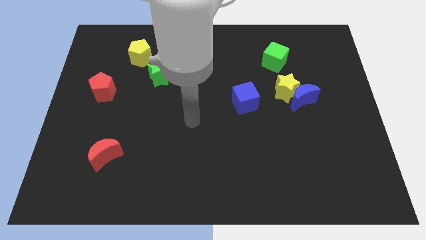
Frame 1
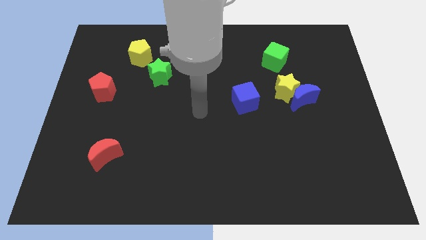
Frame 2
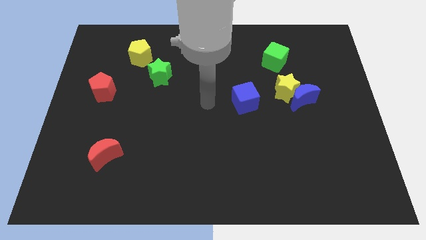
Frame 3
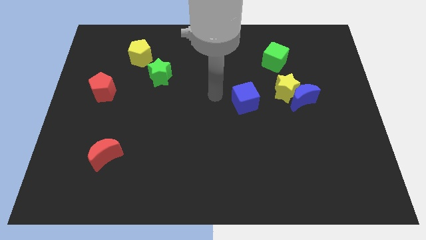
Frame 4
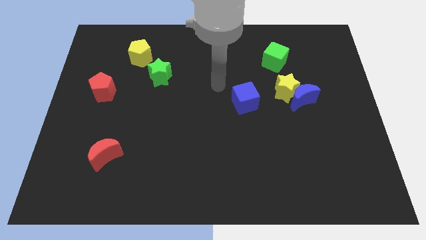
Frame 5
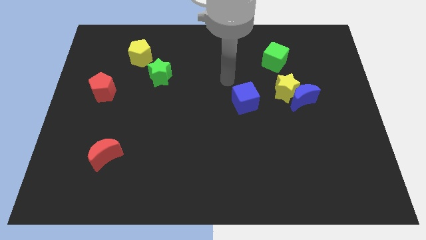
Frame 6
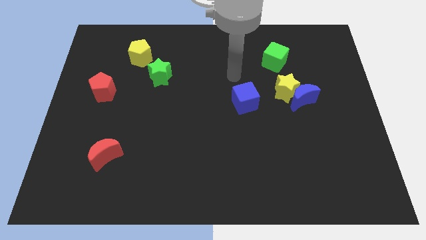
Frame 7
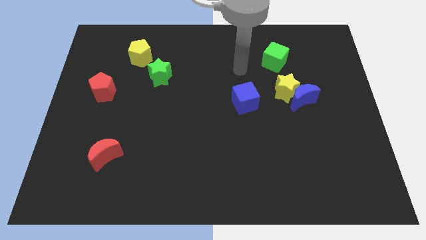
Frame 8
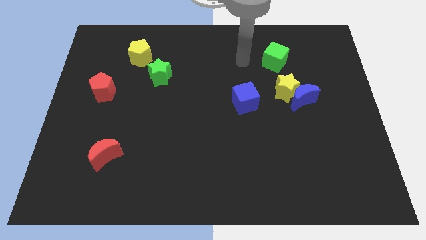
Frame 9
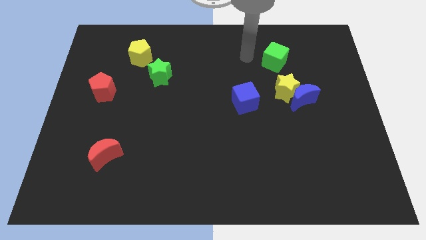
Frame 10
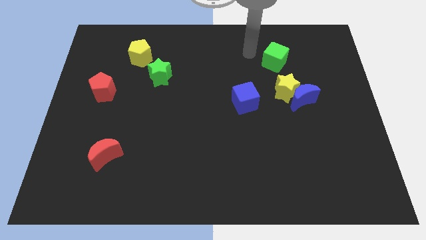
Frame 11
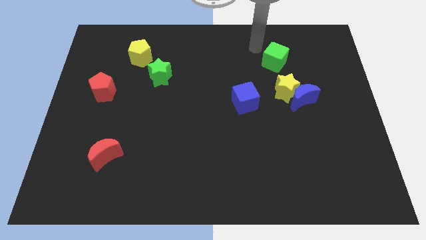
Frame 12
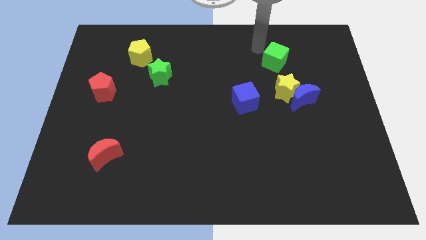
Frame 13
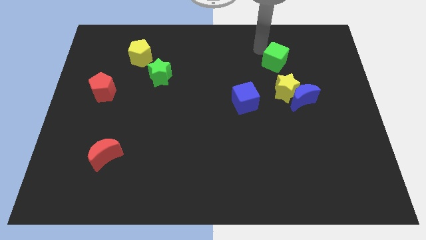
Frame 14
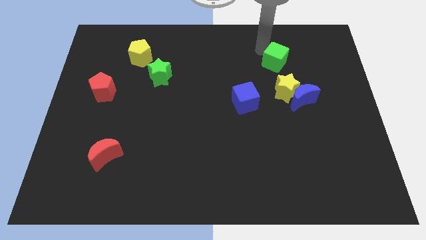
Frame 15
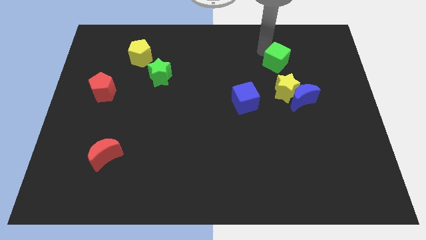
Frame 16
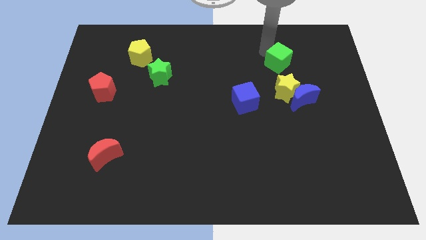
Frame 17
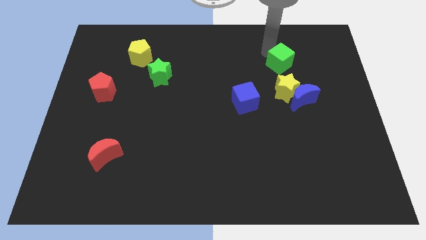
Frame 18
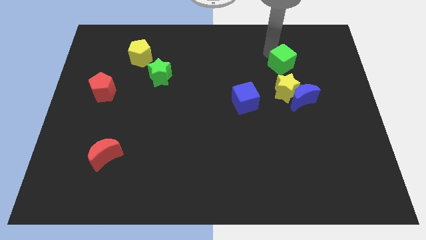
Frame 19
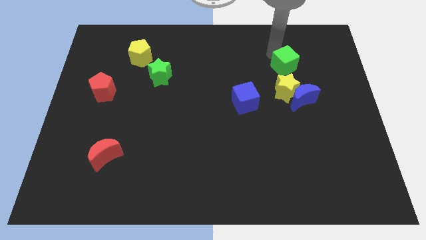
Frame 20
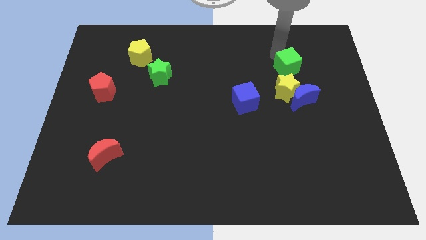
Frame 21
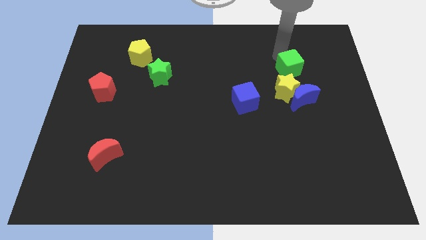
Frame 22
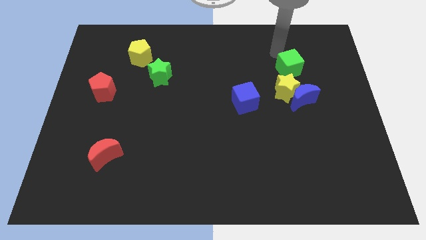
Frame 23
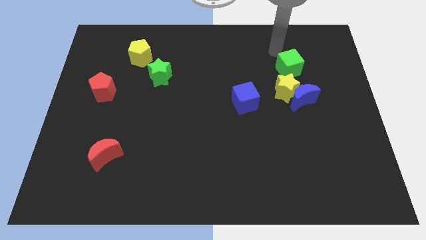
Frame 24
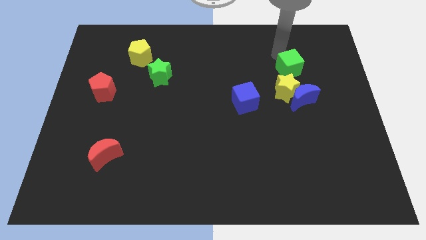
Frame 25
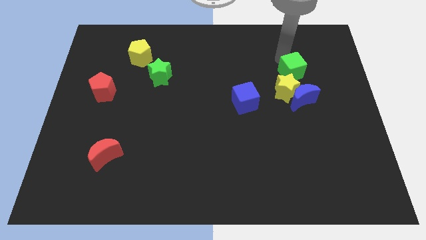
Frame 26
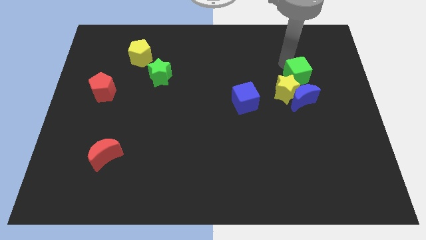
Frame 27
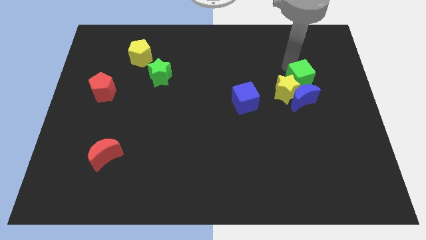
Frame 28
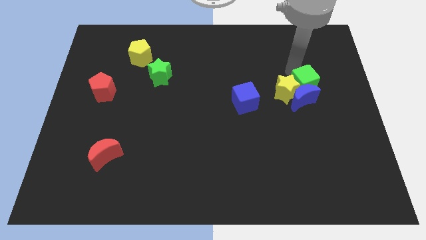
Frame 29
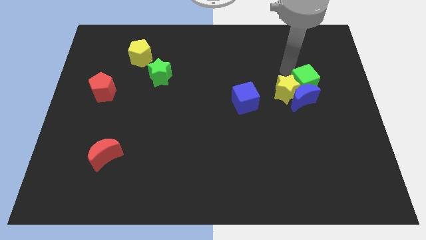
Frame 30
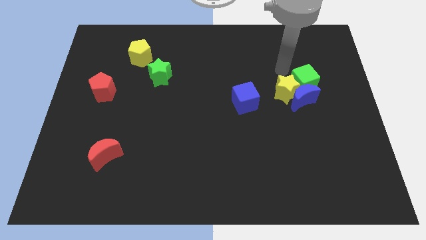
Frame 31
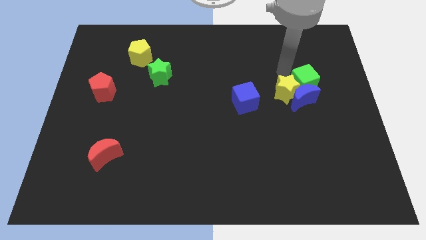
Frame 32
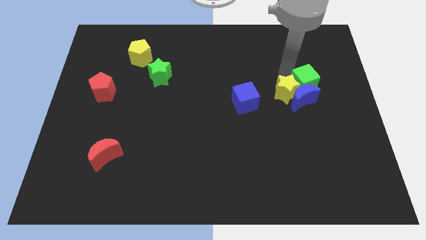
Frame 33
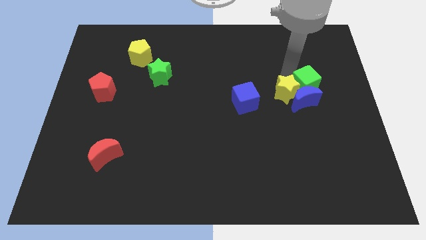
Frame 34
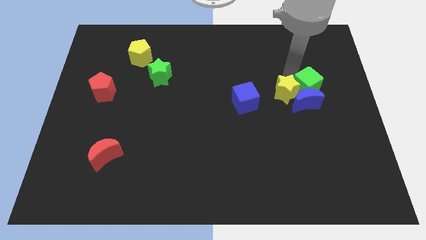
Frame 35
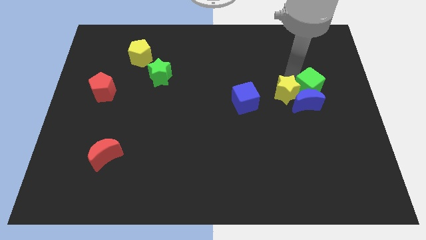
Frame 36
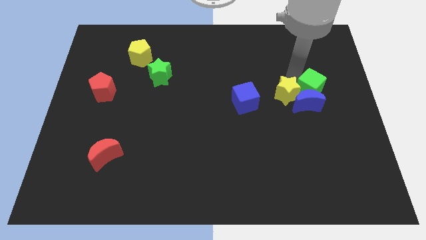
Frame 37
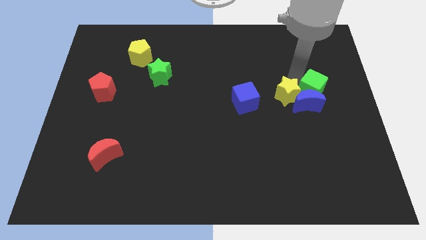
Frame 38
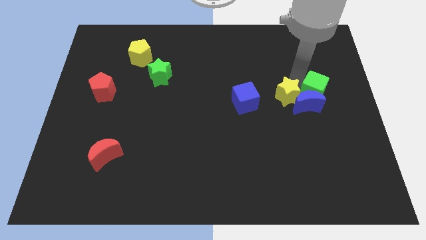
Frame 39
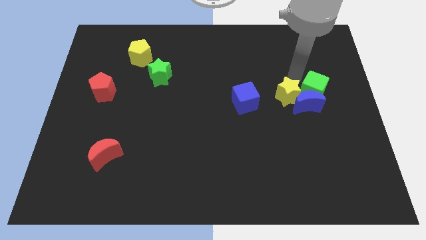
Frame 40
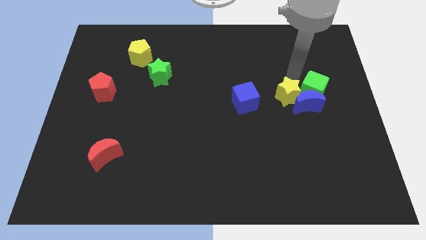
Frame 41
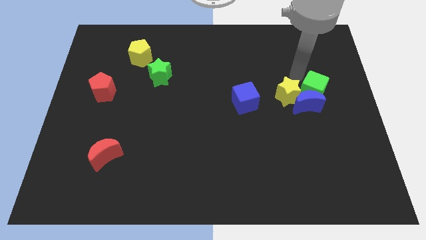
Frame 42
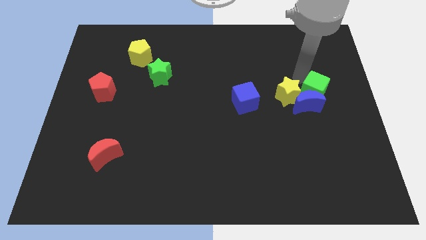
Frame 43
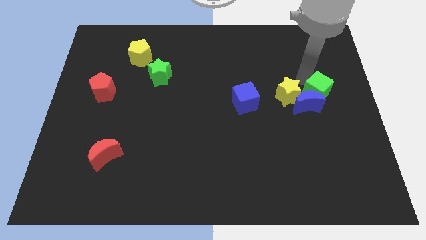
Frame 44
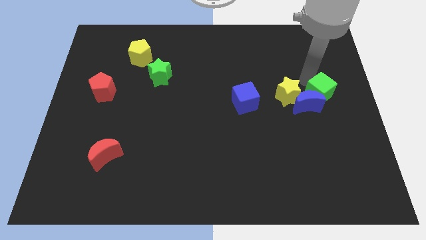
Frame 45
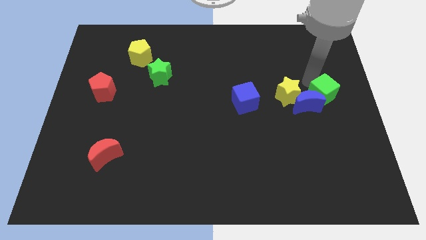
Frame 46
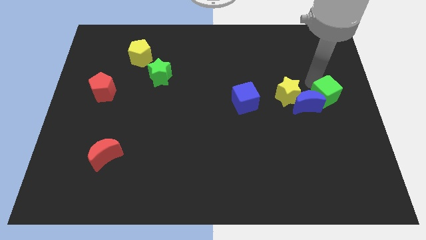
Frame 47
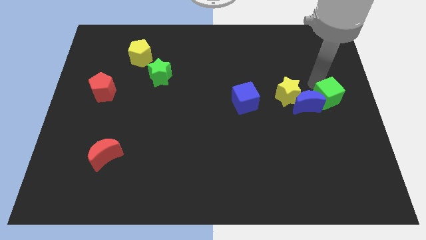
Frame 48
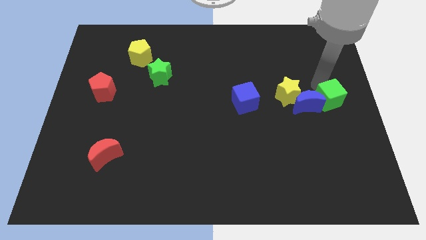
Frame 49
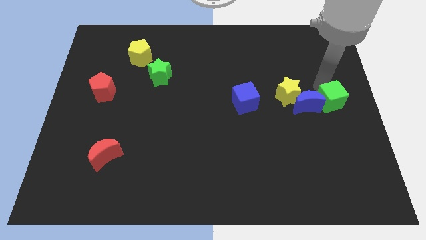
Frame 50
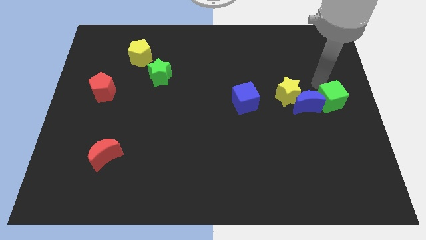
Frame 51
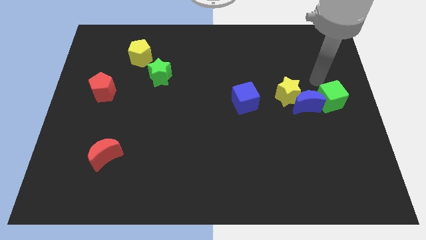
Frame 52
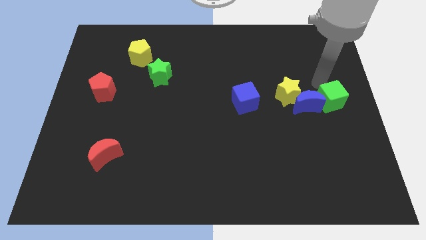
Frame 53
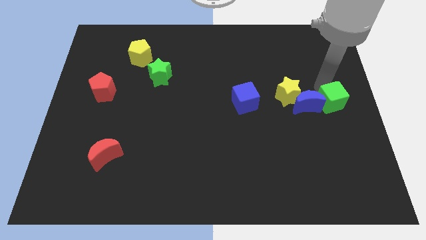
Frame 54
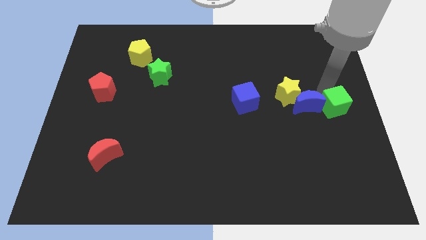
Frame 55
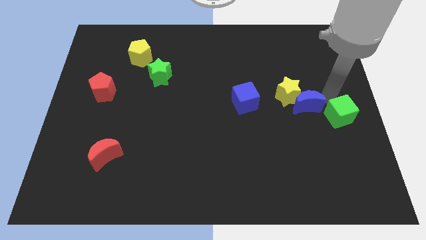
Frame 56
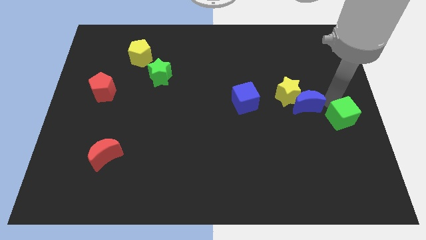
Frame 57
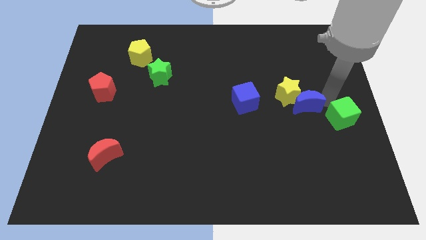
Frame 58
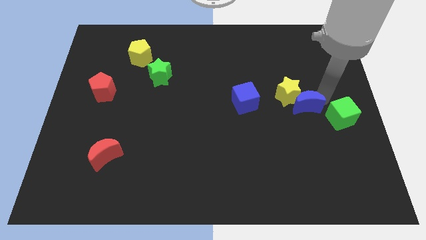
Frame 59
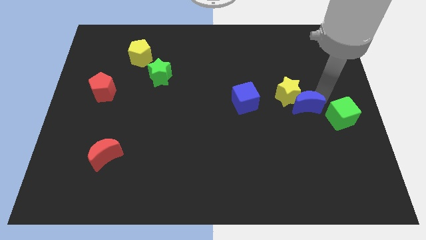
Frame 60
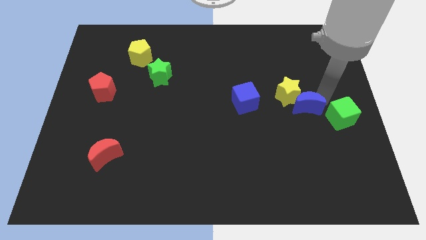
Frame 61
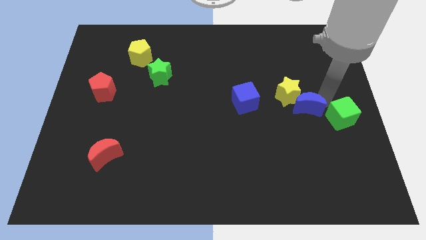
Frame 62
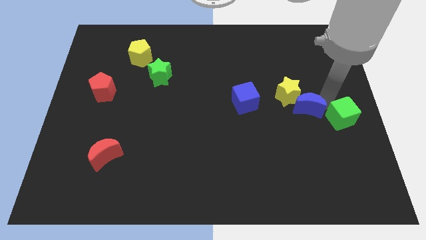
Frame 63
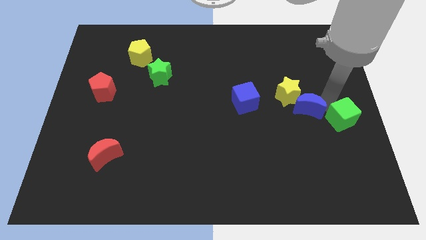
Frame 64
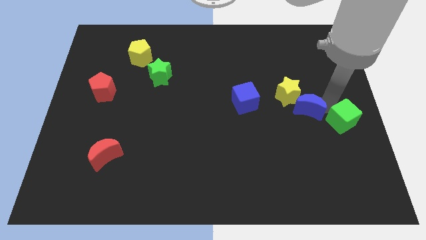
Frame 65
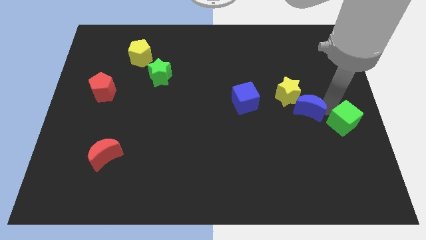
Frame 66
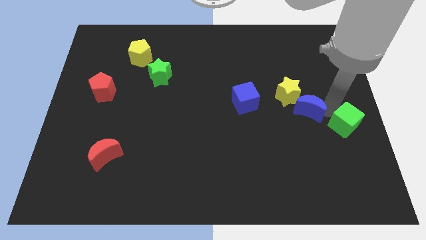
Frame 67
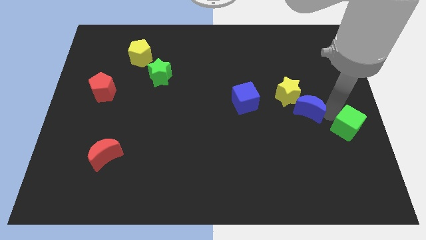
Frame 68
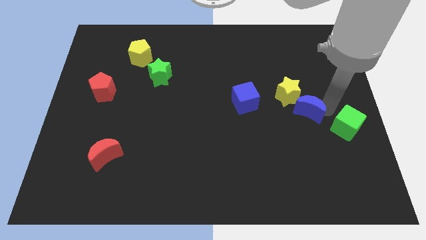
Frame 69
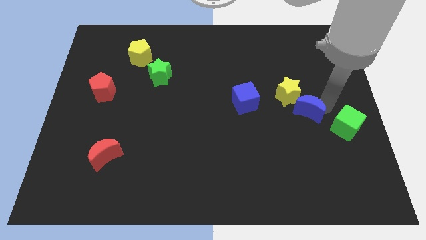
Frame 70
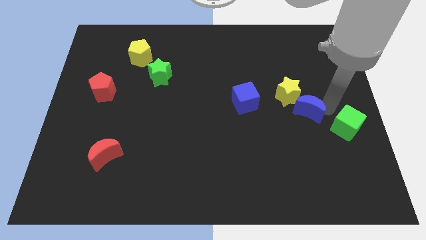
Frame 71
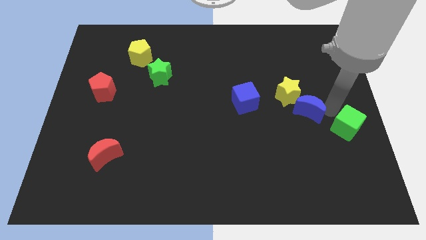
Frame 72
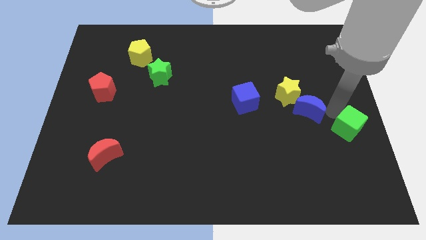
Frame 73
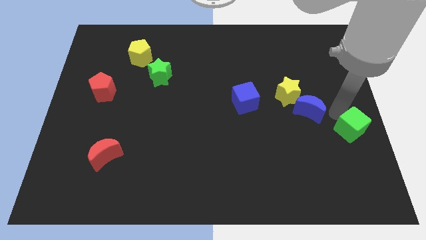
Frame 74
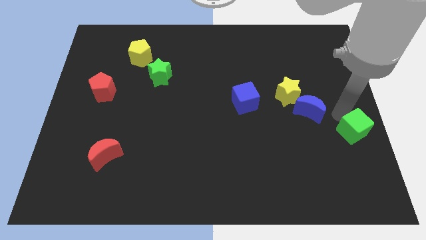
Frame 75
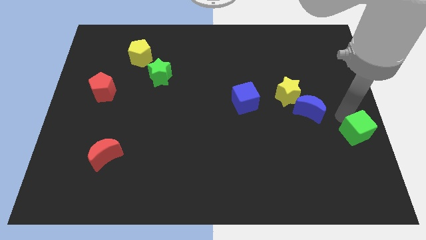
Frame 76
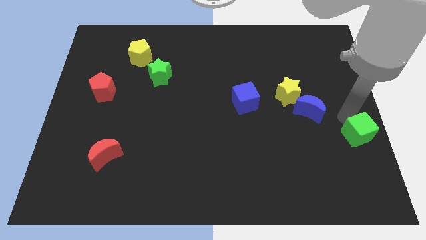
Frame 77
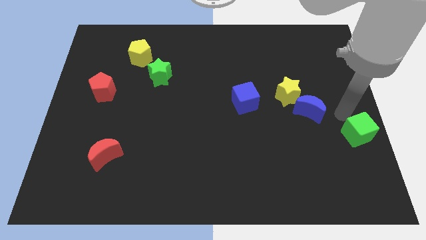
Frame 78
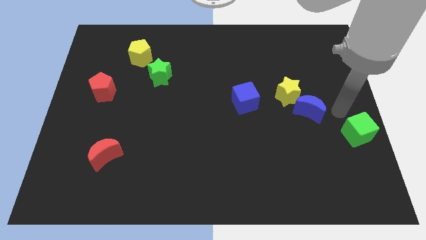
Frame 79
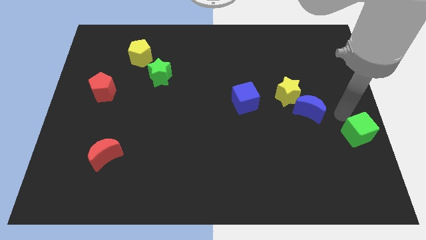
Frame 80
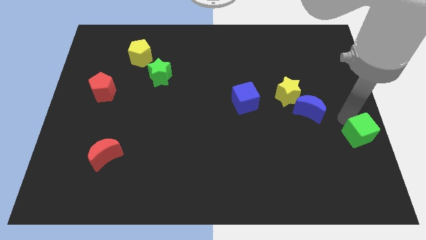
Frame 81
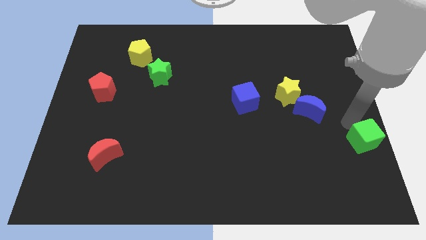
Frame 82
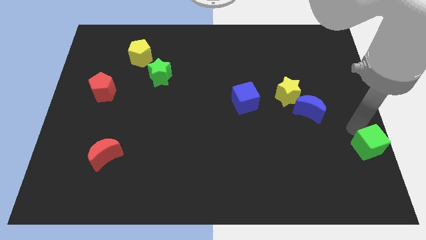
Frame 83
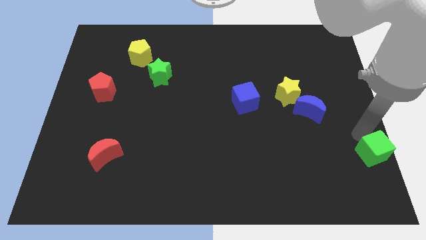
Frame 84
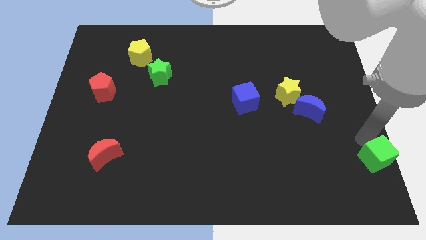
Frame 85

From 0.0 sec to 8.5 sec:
push the green cube to the bottom right
